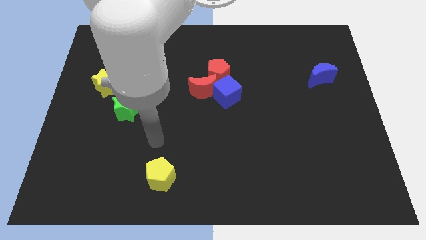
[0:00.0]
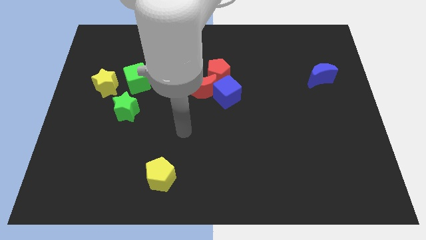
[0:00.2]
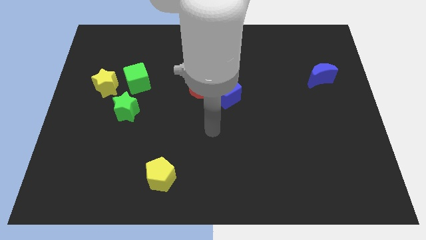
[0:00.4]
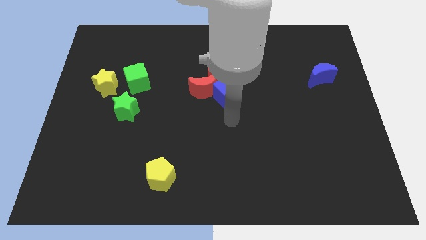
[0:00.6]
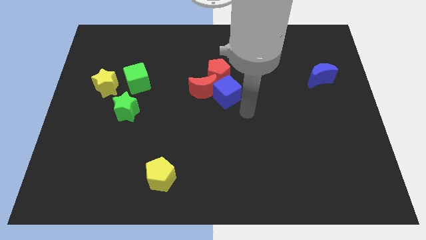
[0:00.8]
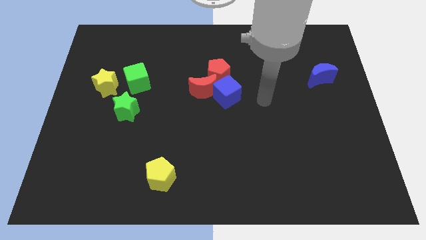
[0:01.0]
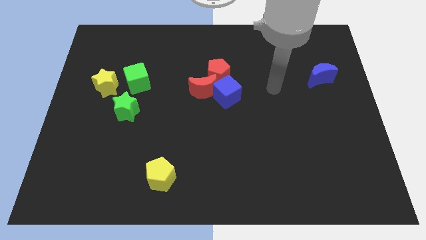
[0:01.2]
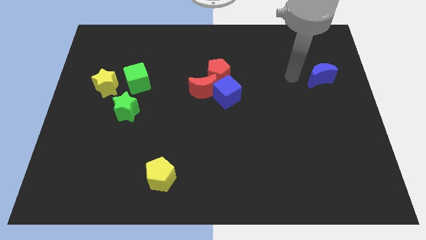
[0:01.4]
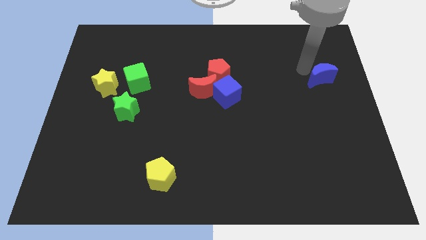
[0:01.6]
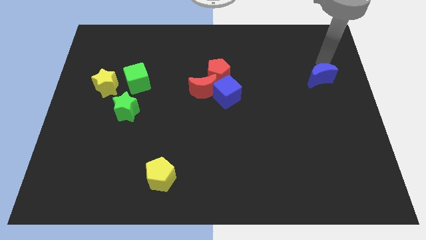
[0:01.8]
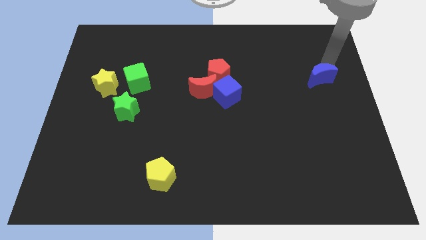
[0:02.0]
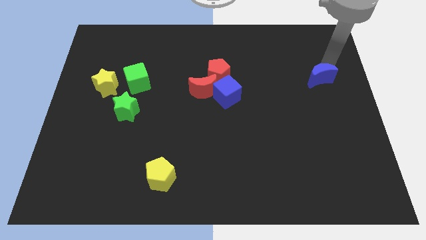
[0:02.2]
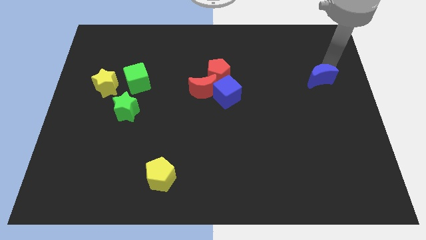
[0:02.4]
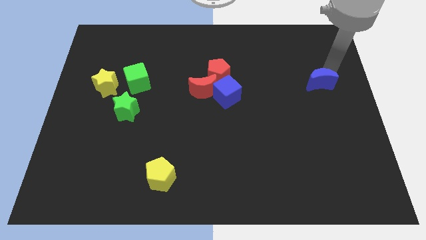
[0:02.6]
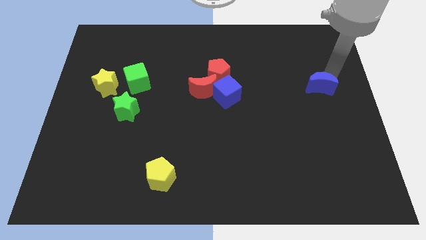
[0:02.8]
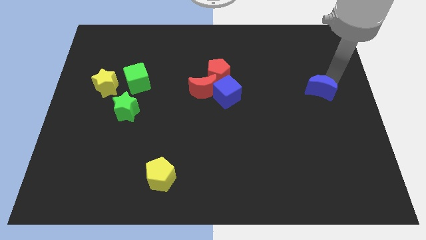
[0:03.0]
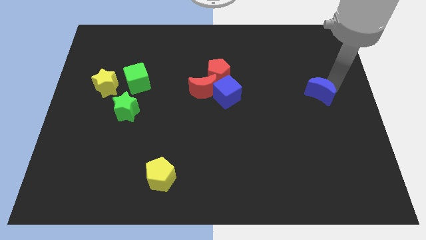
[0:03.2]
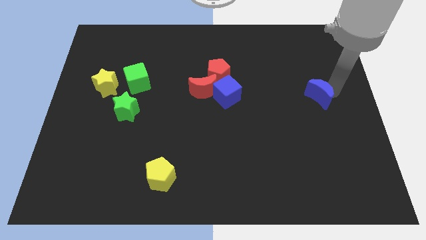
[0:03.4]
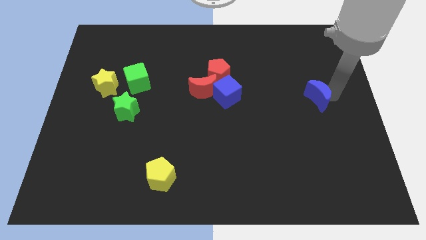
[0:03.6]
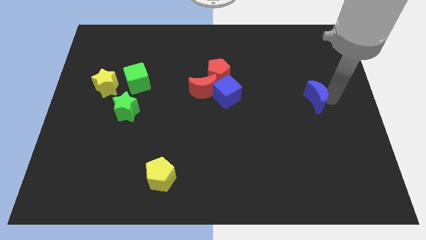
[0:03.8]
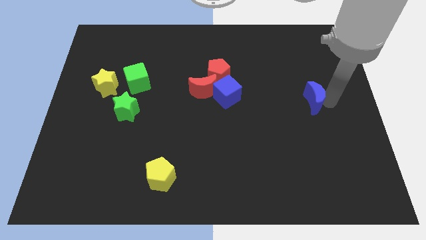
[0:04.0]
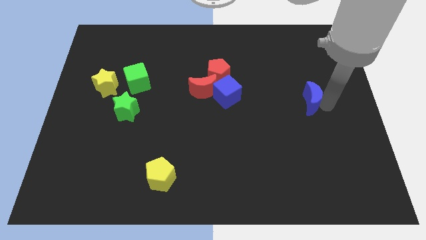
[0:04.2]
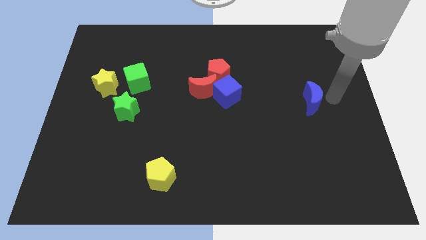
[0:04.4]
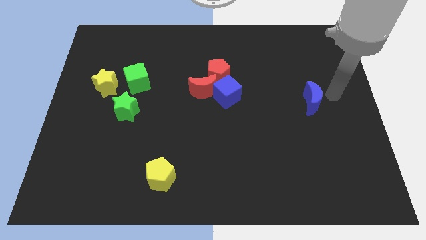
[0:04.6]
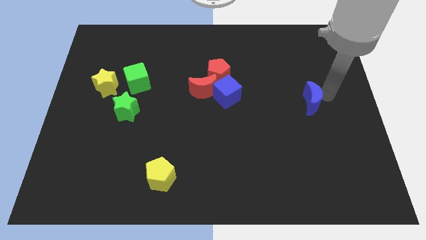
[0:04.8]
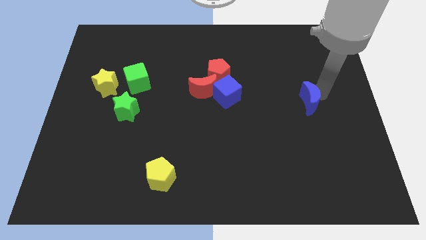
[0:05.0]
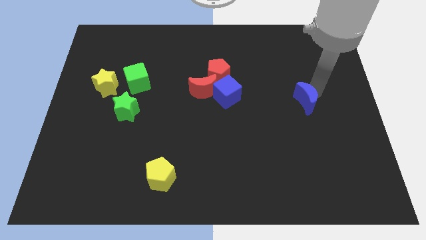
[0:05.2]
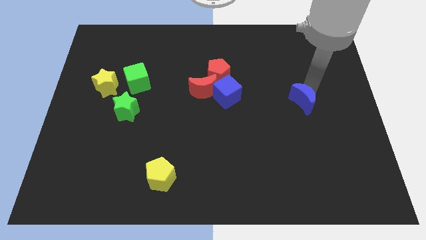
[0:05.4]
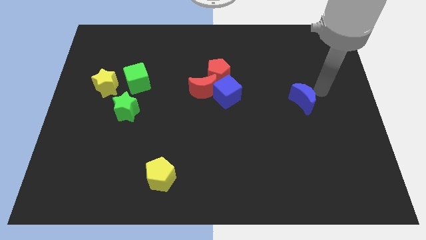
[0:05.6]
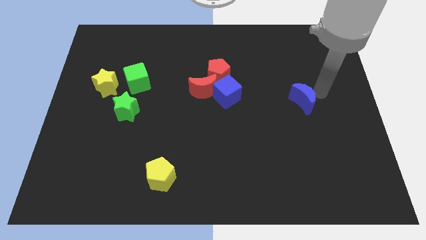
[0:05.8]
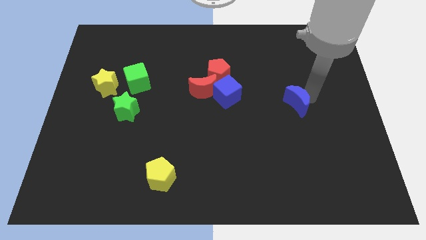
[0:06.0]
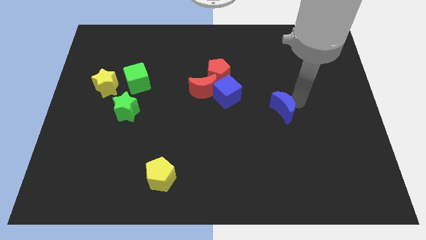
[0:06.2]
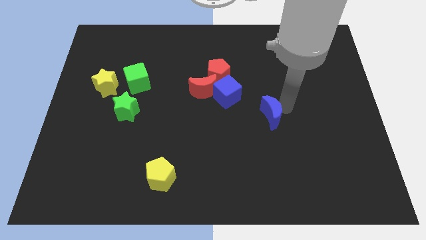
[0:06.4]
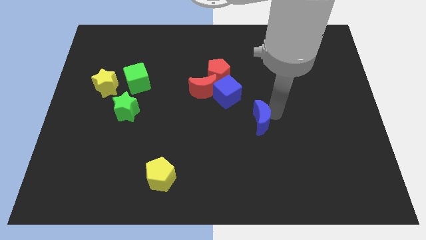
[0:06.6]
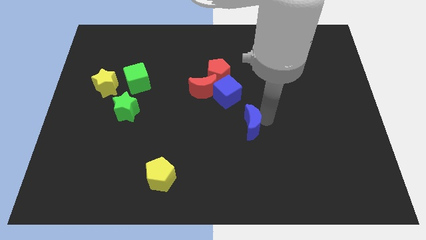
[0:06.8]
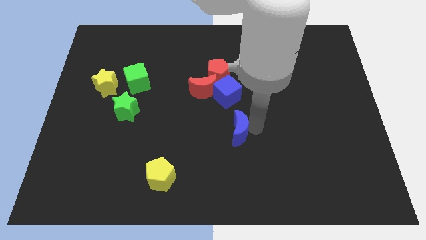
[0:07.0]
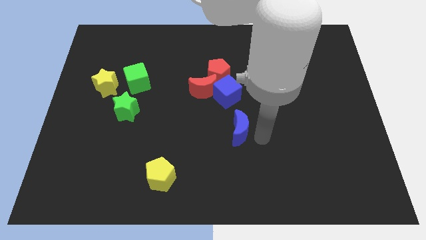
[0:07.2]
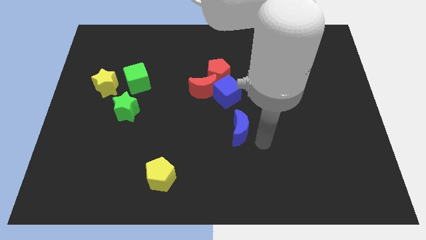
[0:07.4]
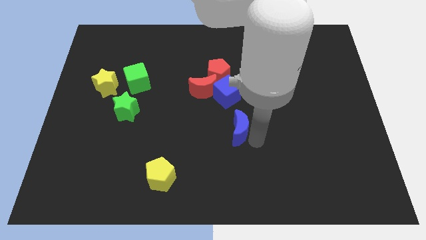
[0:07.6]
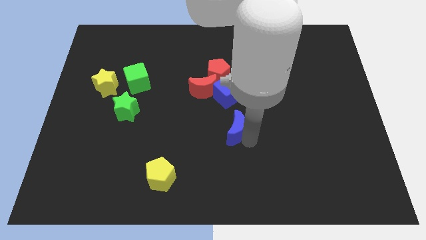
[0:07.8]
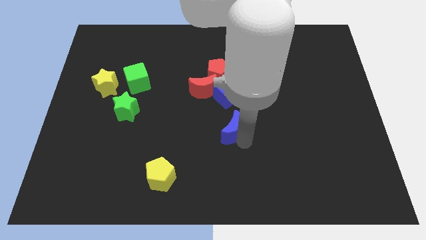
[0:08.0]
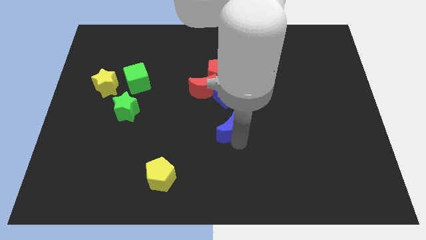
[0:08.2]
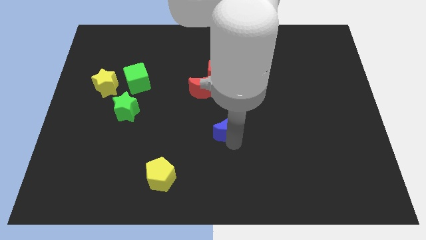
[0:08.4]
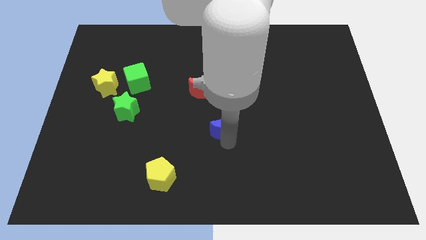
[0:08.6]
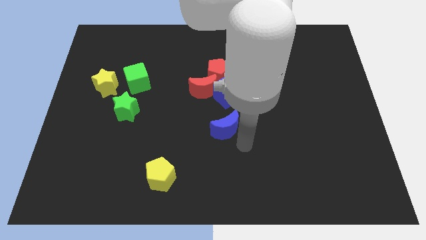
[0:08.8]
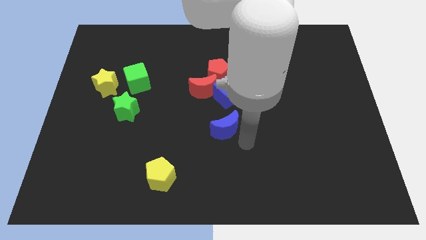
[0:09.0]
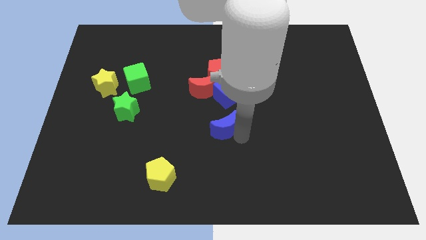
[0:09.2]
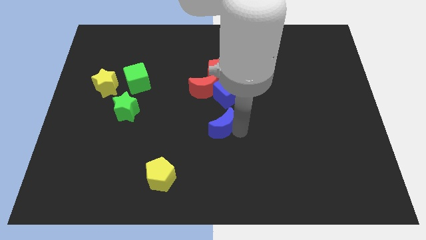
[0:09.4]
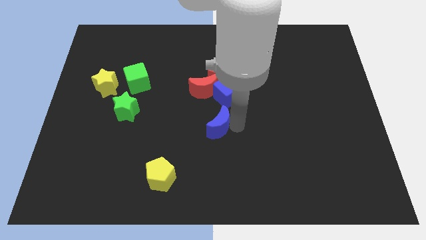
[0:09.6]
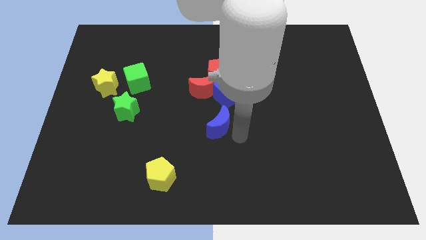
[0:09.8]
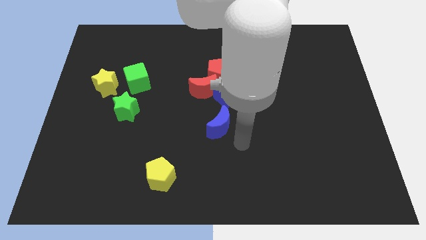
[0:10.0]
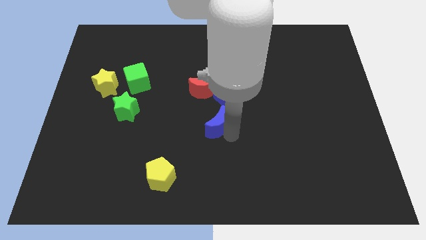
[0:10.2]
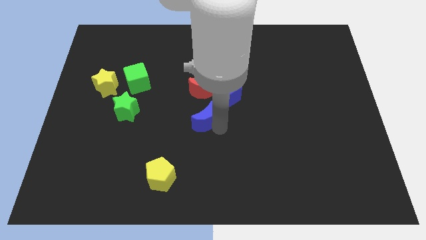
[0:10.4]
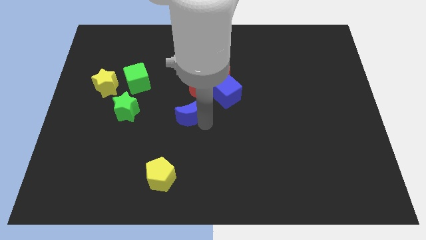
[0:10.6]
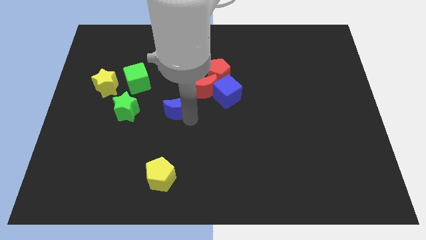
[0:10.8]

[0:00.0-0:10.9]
put the blue moon to the left of the blue cube

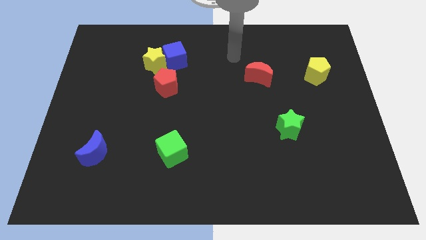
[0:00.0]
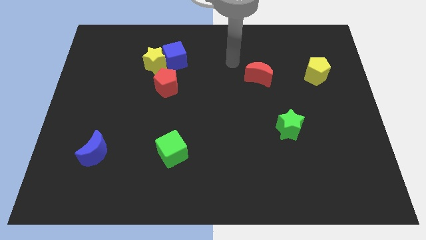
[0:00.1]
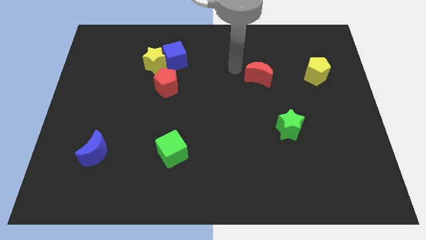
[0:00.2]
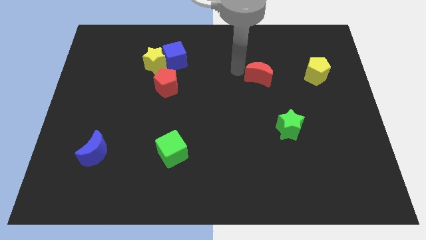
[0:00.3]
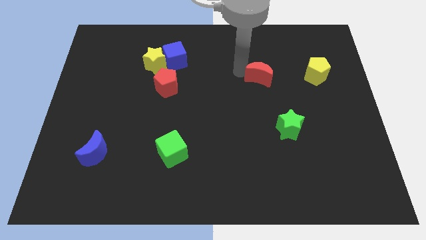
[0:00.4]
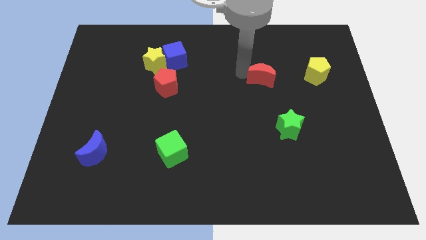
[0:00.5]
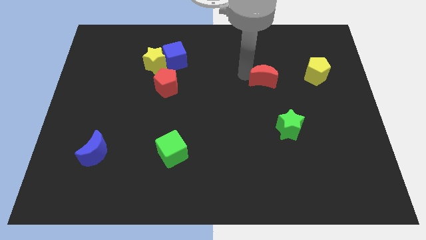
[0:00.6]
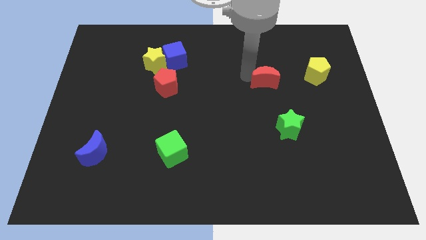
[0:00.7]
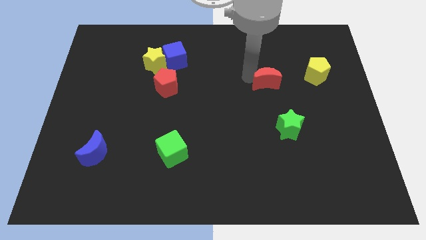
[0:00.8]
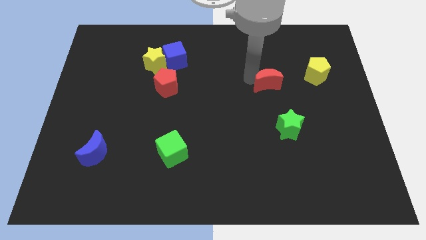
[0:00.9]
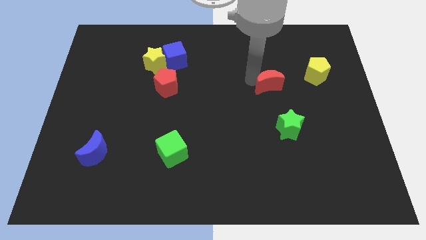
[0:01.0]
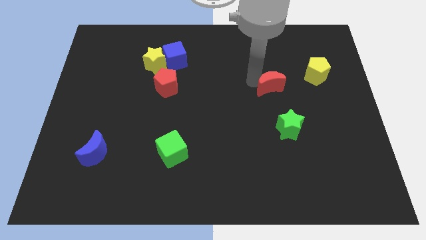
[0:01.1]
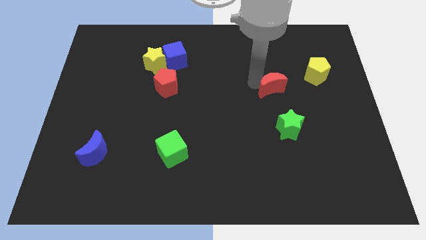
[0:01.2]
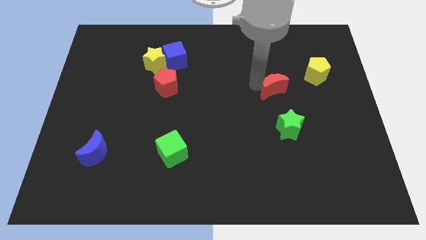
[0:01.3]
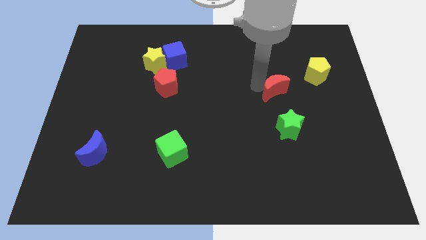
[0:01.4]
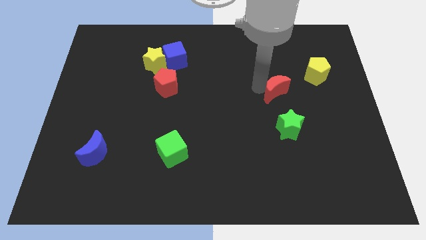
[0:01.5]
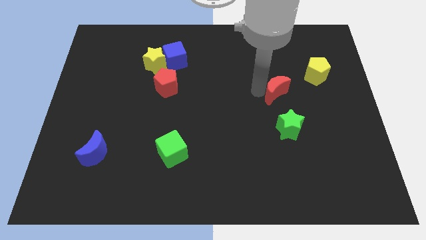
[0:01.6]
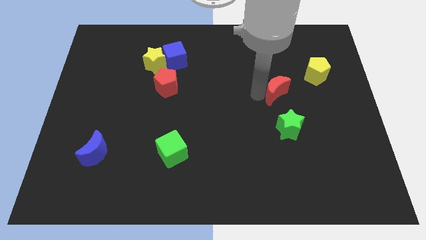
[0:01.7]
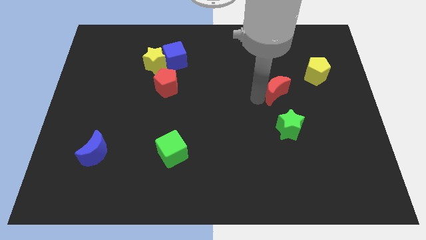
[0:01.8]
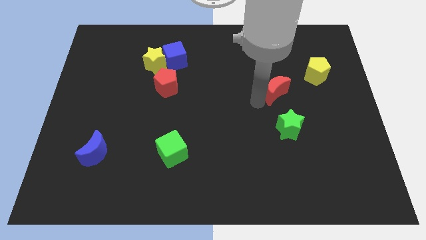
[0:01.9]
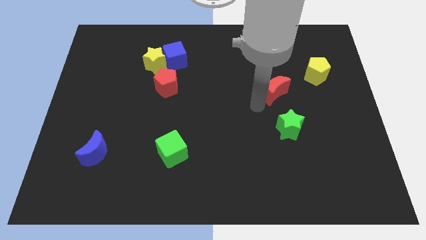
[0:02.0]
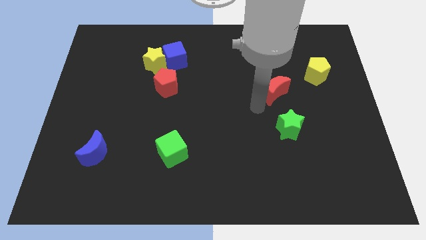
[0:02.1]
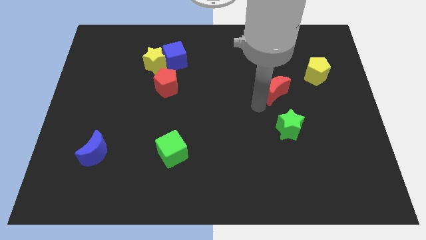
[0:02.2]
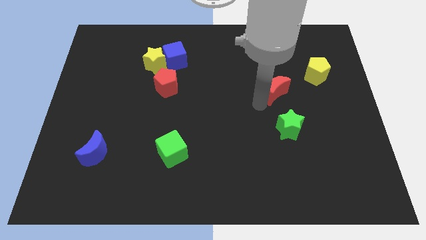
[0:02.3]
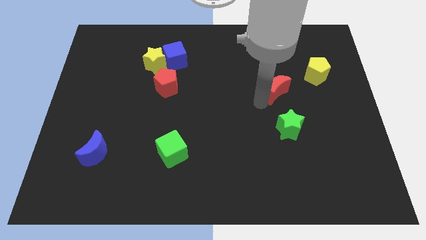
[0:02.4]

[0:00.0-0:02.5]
put the red moon diagonally down and to the left of the yellow pentagon
